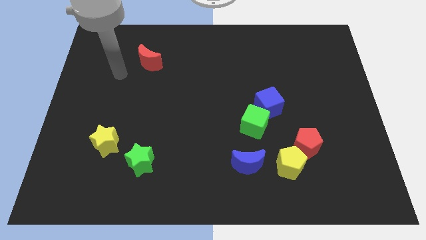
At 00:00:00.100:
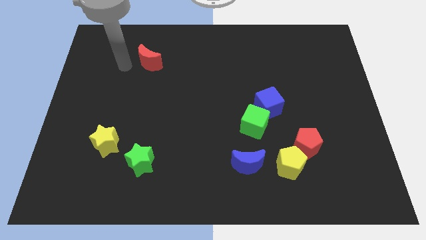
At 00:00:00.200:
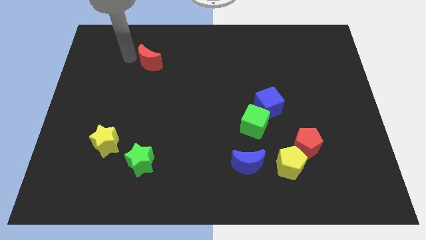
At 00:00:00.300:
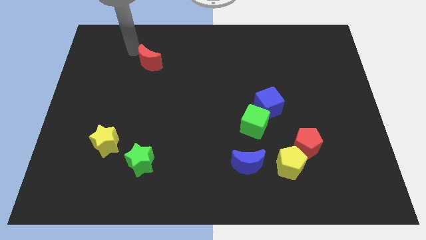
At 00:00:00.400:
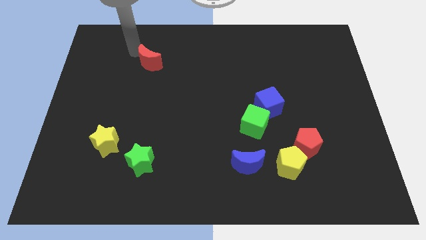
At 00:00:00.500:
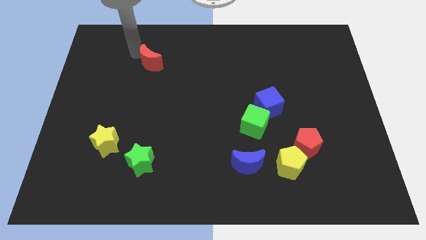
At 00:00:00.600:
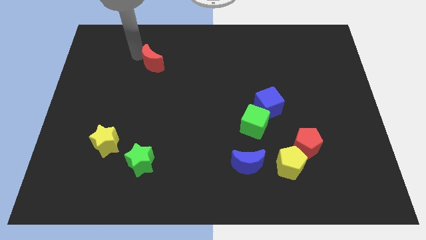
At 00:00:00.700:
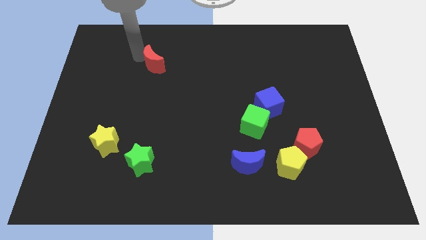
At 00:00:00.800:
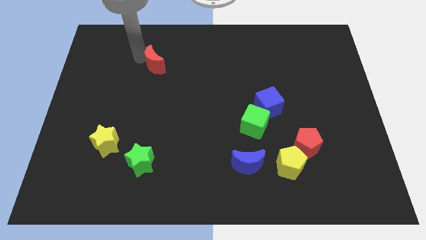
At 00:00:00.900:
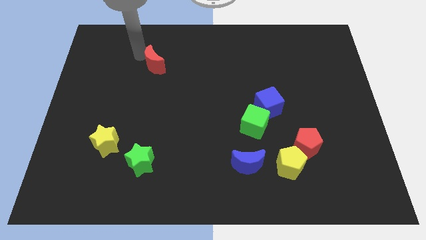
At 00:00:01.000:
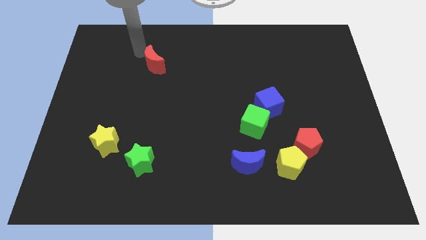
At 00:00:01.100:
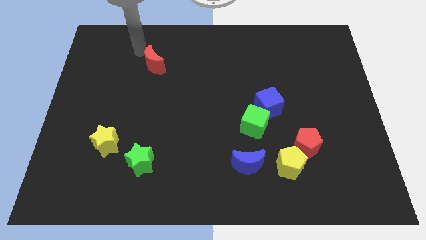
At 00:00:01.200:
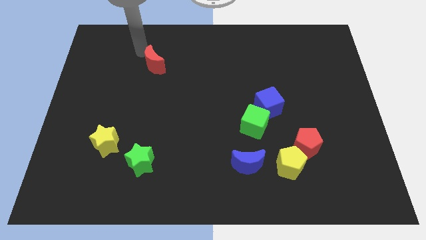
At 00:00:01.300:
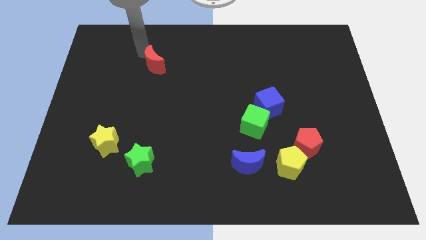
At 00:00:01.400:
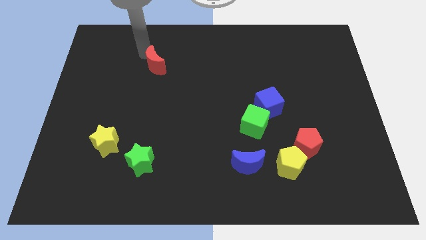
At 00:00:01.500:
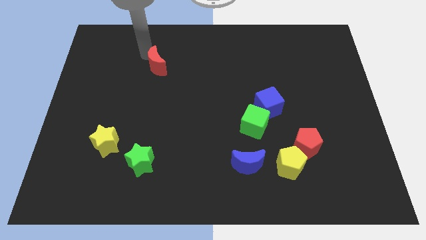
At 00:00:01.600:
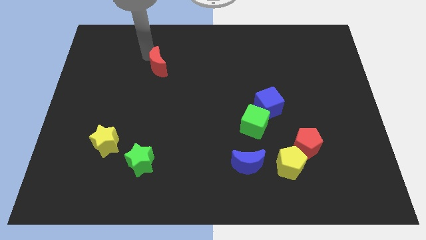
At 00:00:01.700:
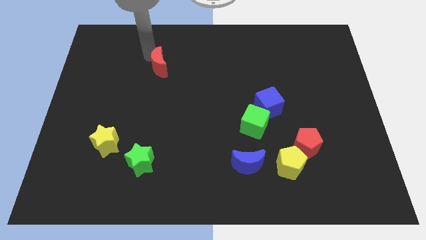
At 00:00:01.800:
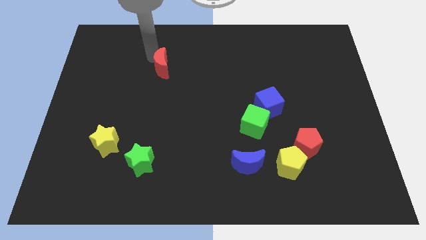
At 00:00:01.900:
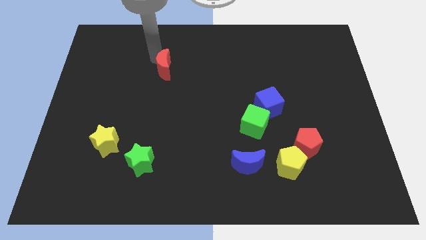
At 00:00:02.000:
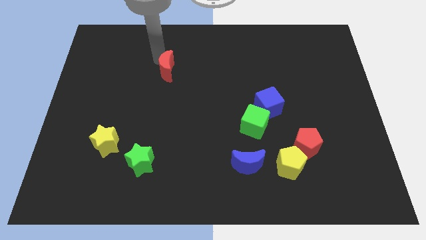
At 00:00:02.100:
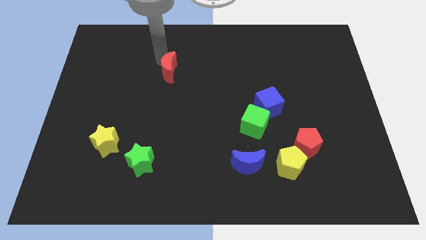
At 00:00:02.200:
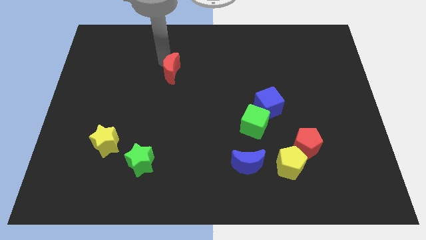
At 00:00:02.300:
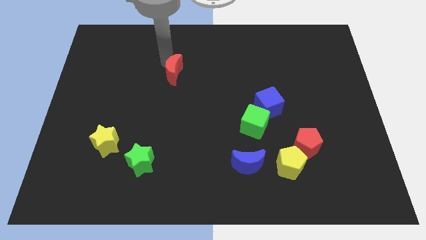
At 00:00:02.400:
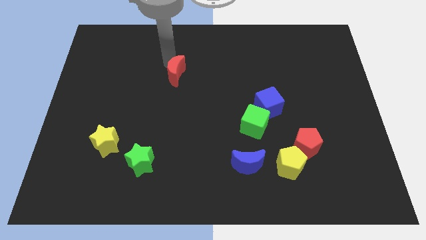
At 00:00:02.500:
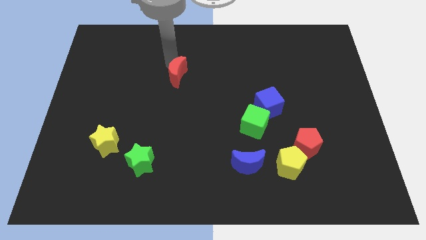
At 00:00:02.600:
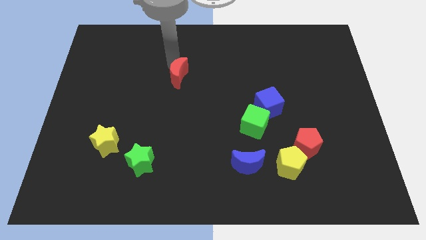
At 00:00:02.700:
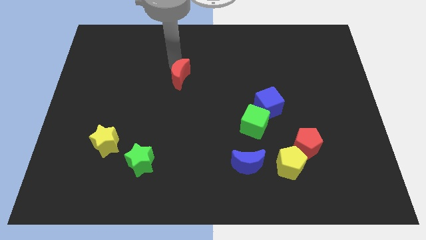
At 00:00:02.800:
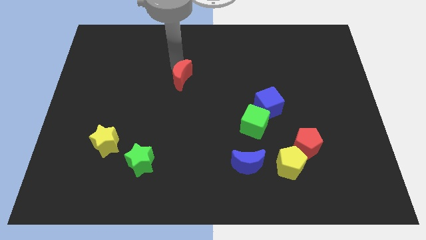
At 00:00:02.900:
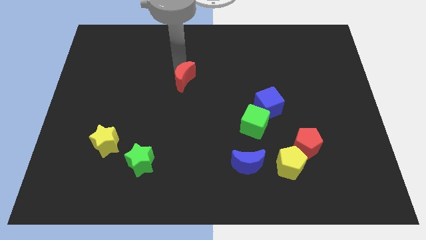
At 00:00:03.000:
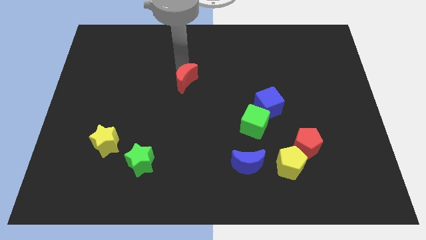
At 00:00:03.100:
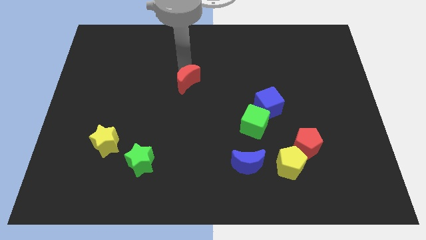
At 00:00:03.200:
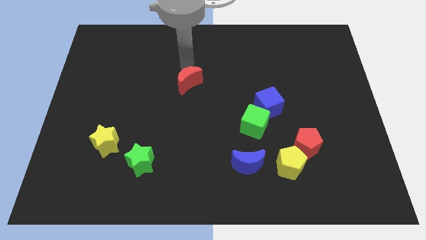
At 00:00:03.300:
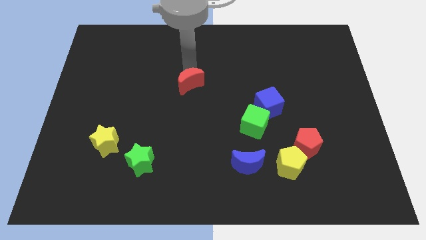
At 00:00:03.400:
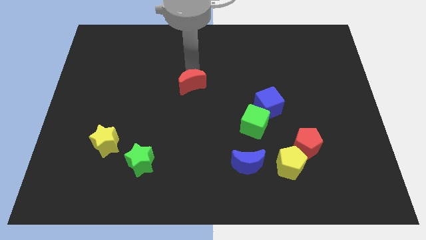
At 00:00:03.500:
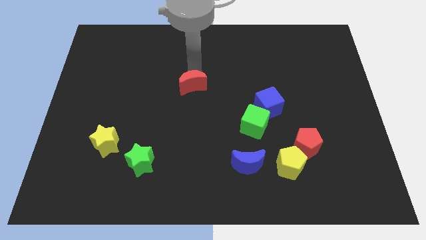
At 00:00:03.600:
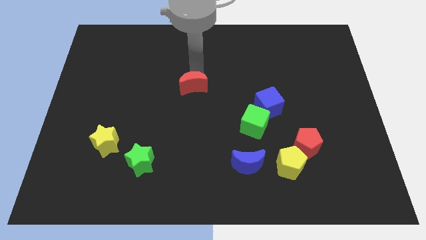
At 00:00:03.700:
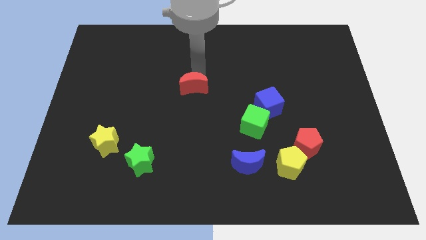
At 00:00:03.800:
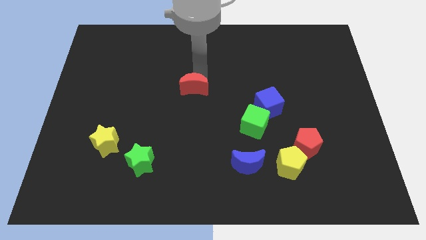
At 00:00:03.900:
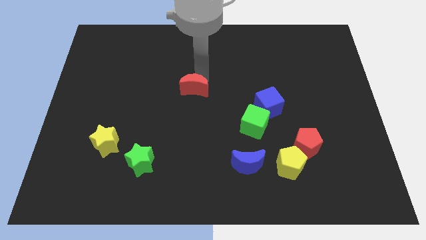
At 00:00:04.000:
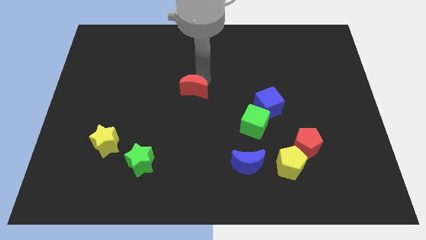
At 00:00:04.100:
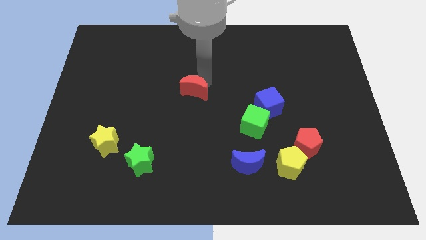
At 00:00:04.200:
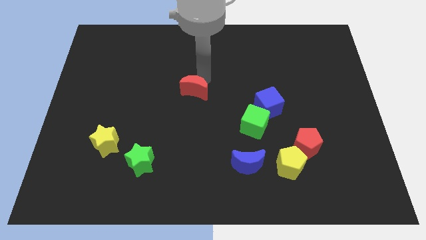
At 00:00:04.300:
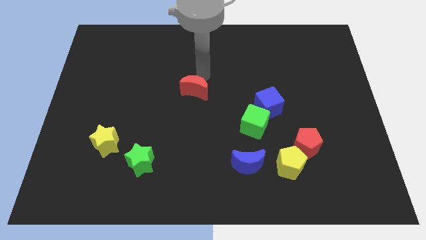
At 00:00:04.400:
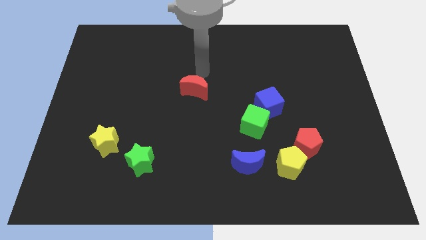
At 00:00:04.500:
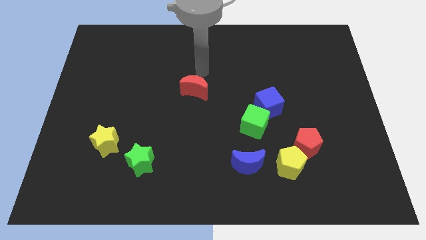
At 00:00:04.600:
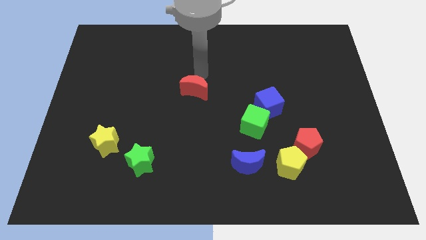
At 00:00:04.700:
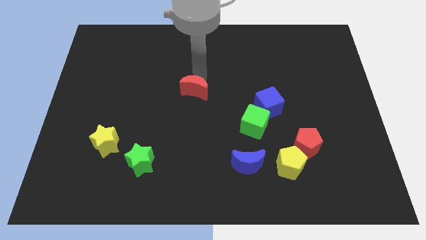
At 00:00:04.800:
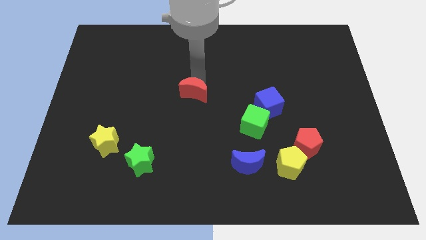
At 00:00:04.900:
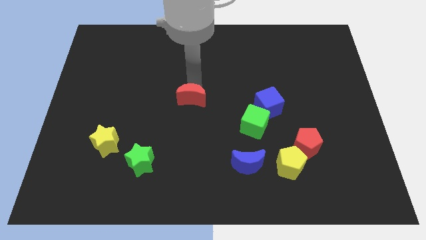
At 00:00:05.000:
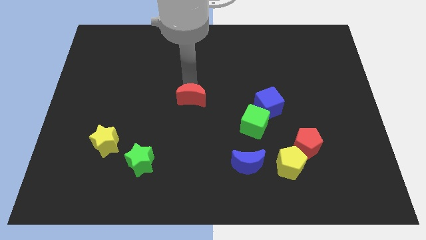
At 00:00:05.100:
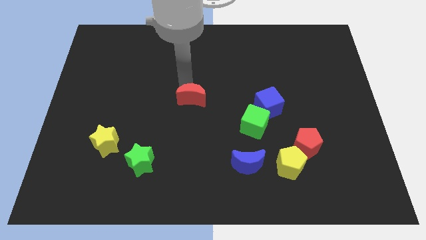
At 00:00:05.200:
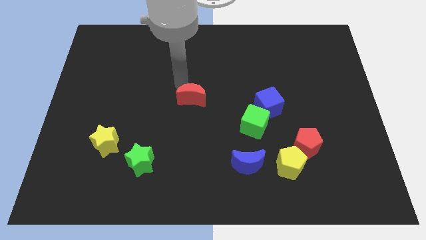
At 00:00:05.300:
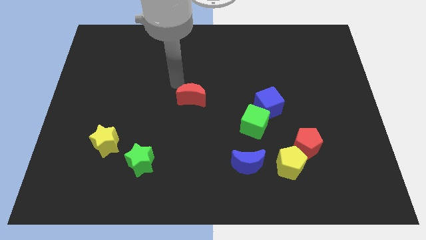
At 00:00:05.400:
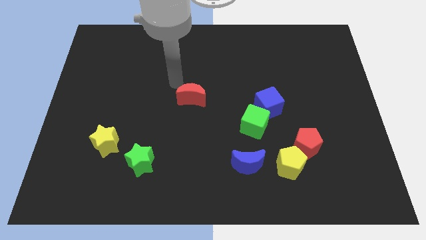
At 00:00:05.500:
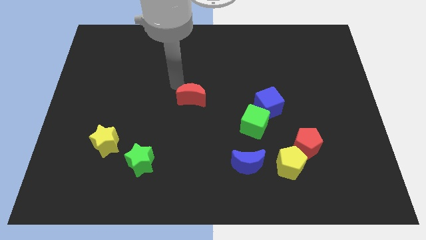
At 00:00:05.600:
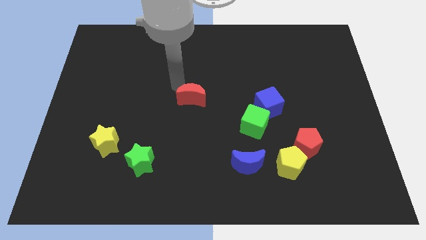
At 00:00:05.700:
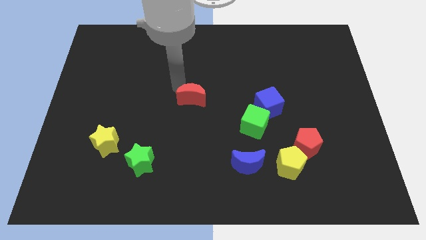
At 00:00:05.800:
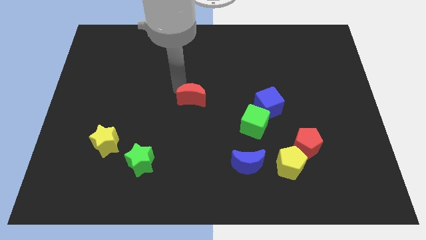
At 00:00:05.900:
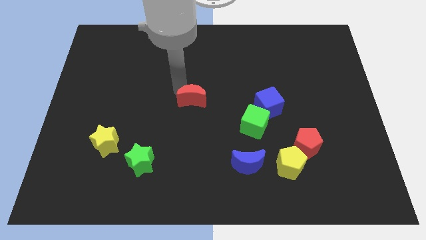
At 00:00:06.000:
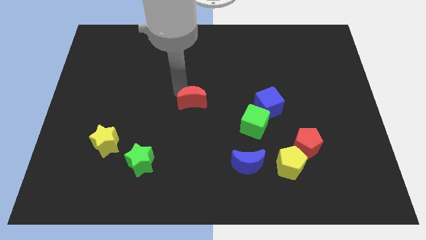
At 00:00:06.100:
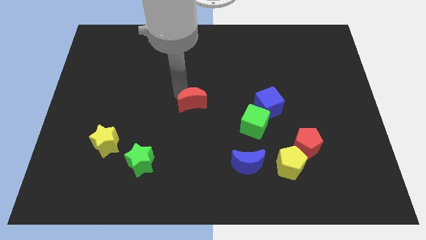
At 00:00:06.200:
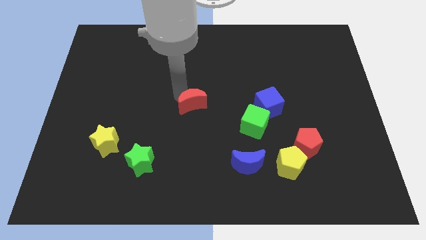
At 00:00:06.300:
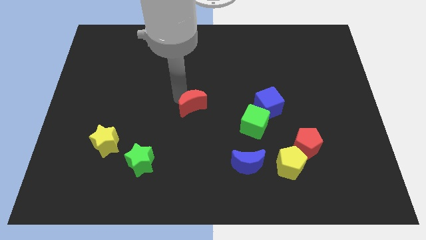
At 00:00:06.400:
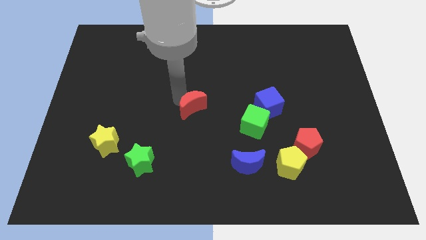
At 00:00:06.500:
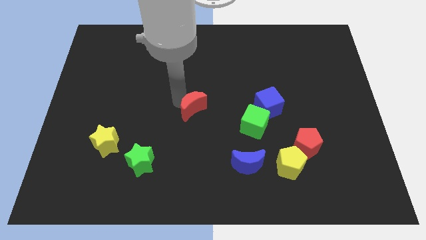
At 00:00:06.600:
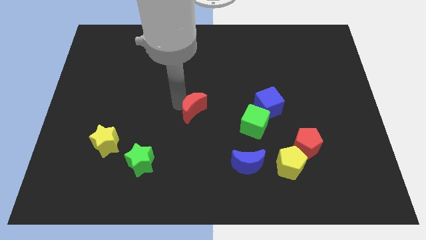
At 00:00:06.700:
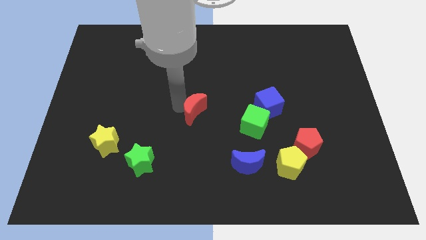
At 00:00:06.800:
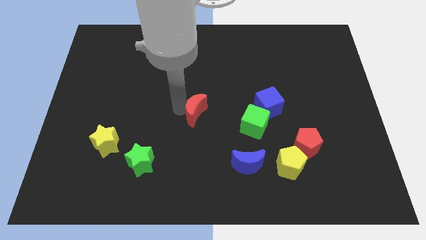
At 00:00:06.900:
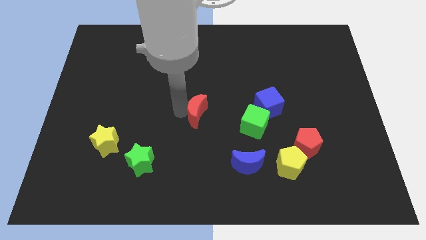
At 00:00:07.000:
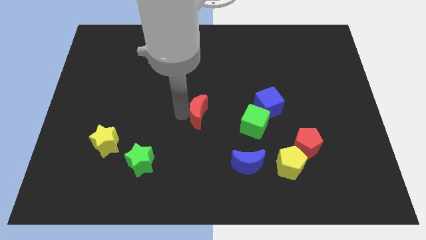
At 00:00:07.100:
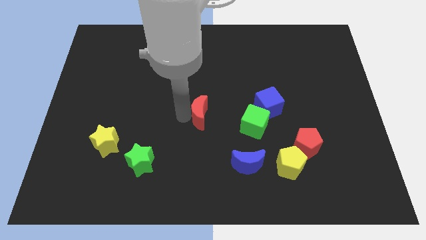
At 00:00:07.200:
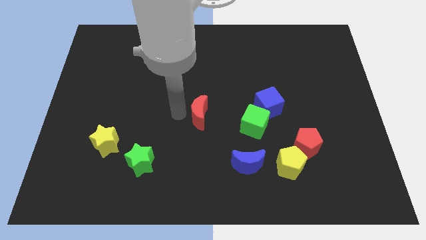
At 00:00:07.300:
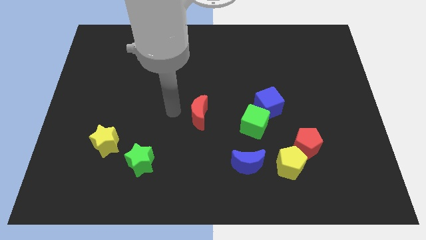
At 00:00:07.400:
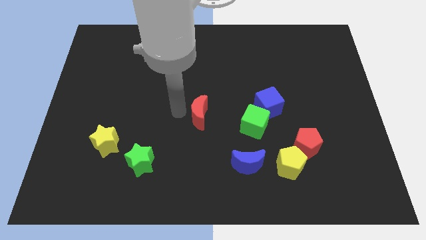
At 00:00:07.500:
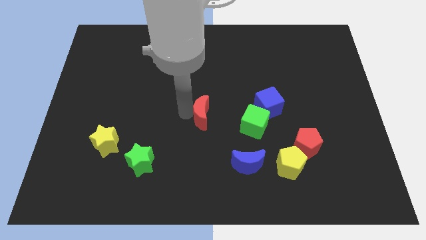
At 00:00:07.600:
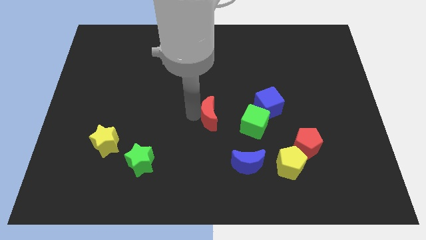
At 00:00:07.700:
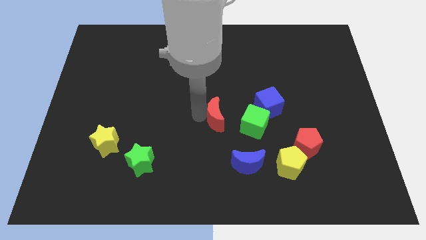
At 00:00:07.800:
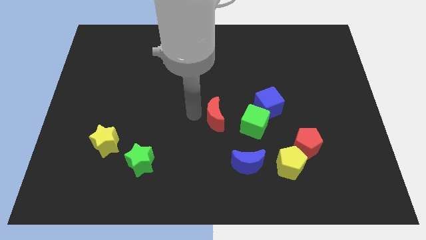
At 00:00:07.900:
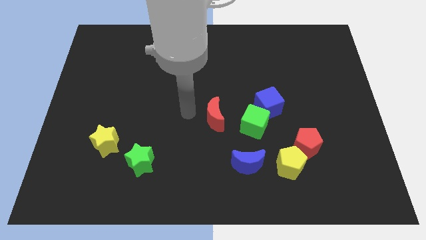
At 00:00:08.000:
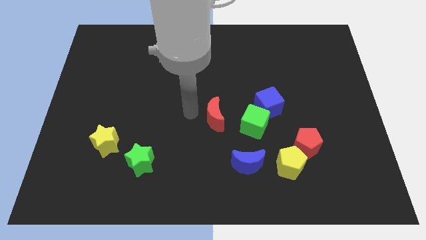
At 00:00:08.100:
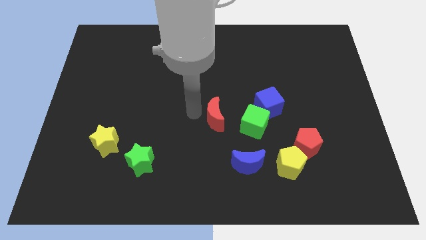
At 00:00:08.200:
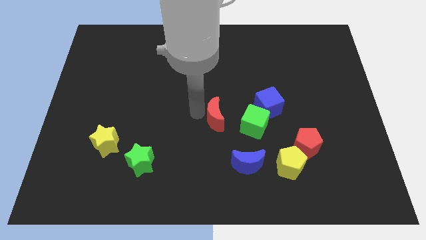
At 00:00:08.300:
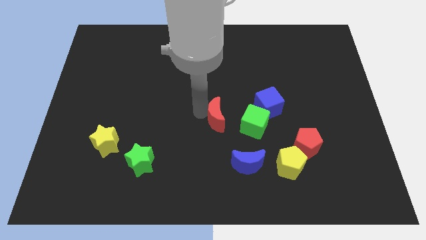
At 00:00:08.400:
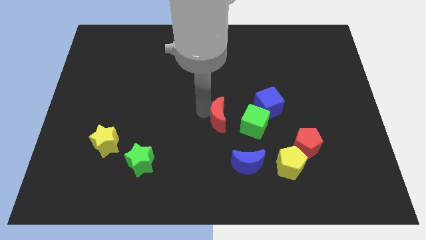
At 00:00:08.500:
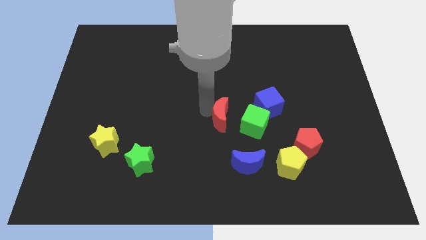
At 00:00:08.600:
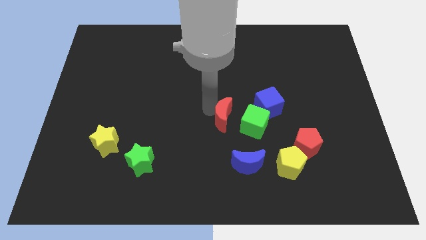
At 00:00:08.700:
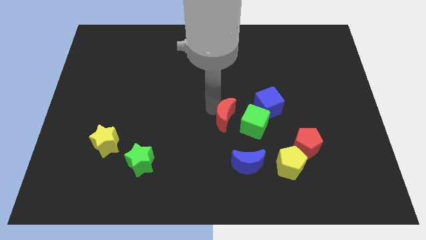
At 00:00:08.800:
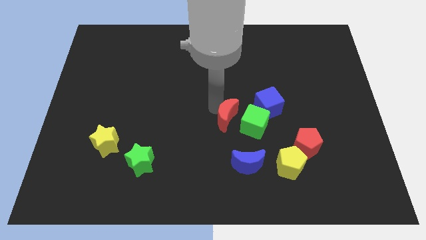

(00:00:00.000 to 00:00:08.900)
put the red moon to the bottom left of the blue cube
